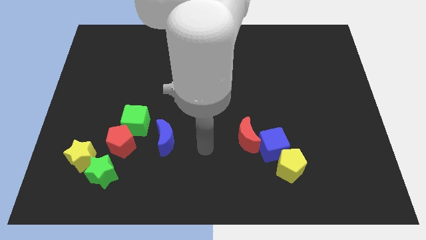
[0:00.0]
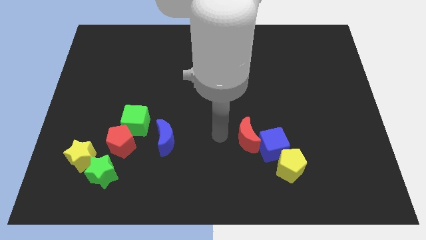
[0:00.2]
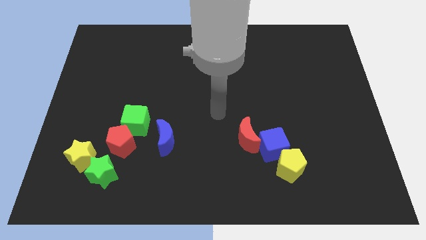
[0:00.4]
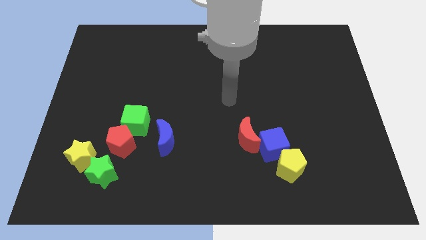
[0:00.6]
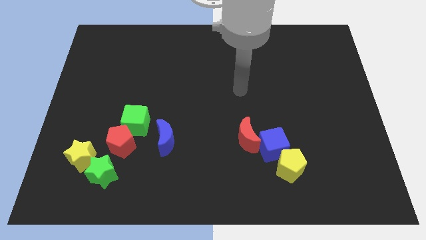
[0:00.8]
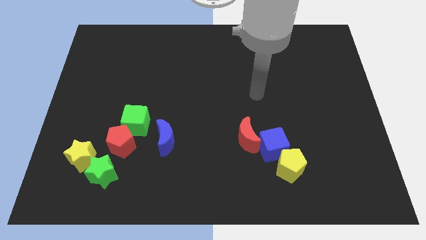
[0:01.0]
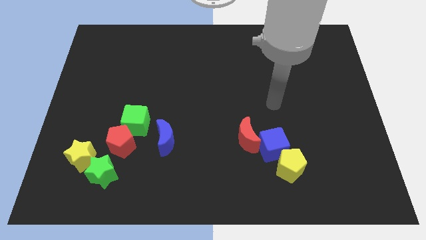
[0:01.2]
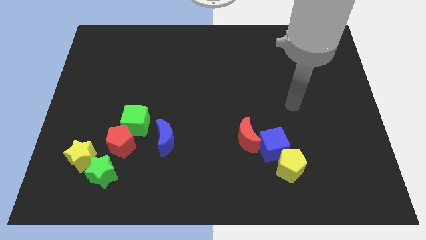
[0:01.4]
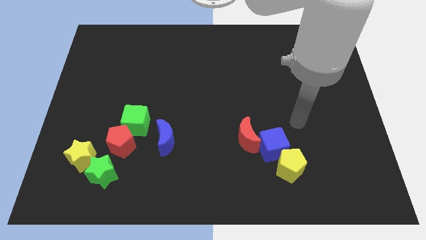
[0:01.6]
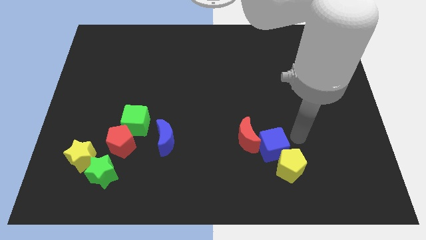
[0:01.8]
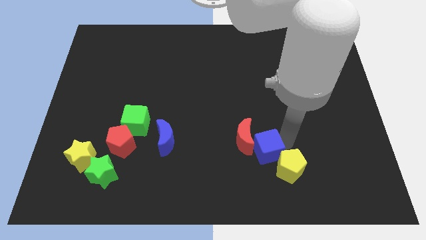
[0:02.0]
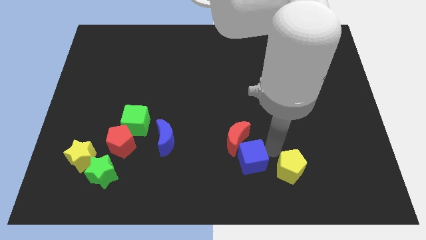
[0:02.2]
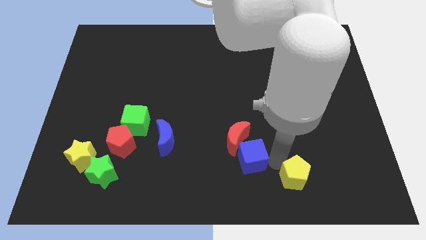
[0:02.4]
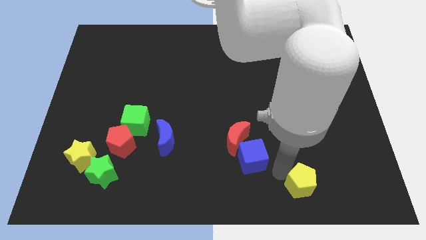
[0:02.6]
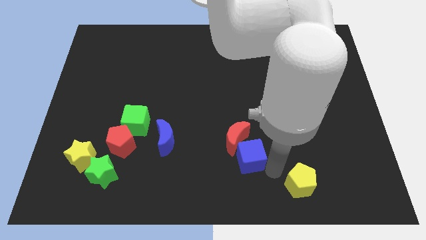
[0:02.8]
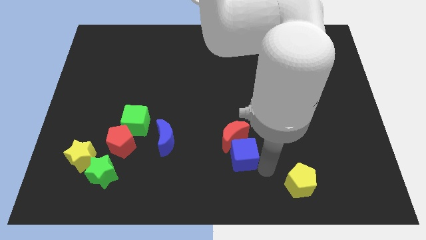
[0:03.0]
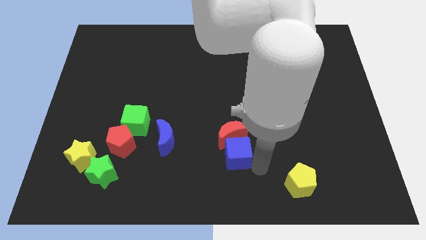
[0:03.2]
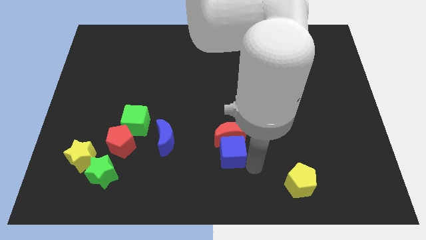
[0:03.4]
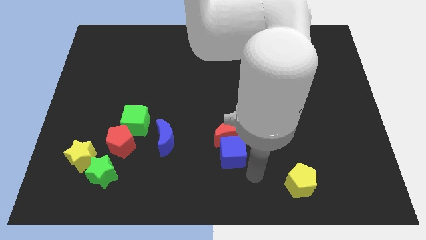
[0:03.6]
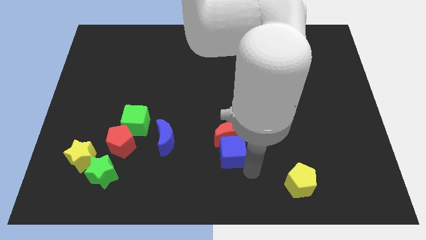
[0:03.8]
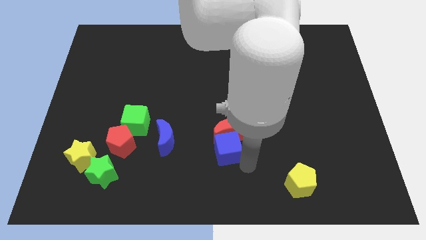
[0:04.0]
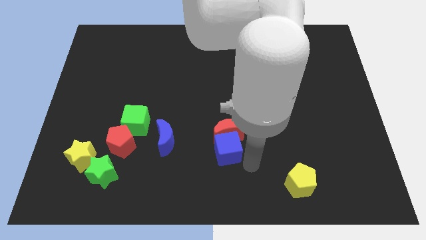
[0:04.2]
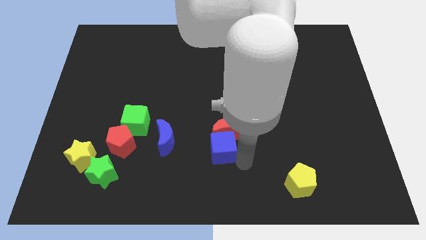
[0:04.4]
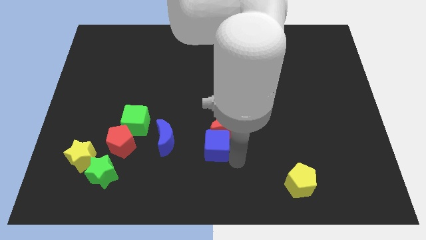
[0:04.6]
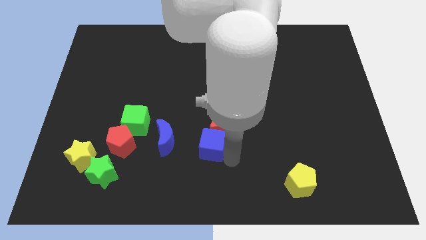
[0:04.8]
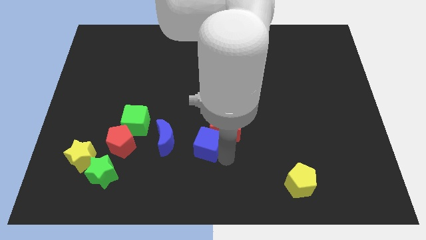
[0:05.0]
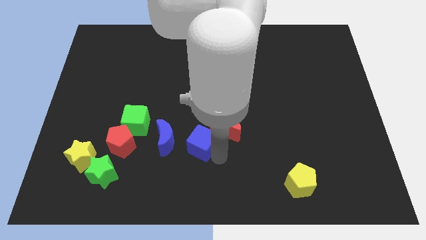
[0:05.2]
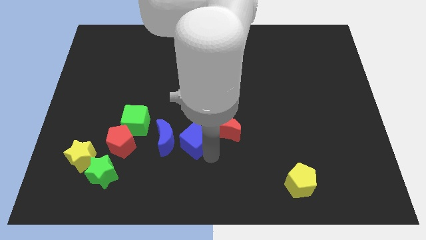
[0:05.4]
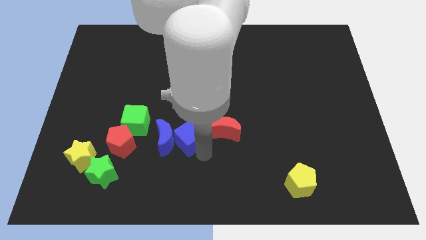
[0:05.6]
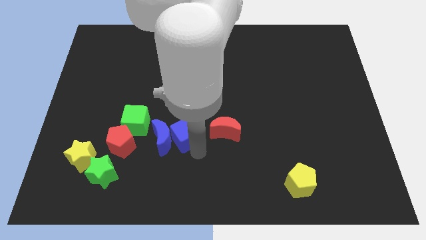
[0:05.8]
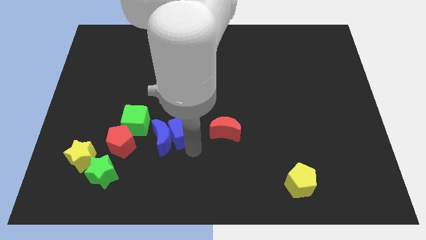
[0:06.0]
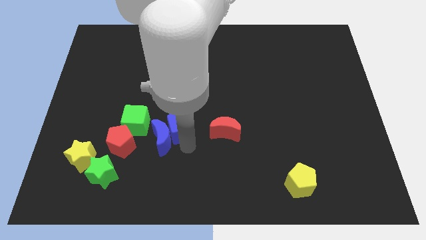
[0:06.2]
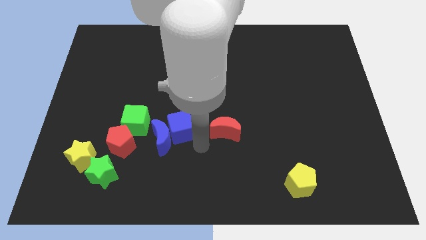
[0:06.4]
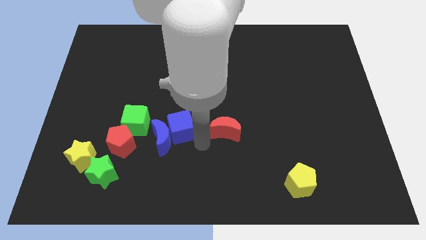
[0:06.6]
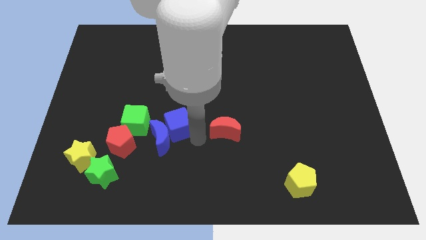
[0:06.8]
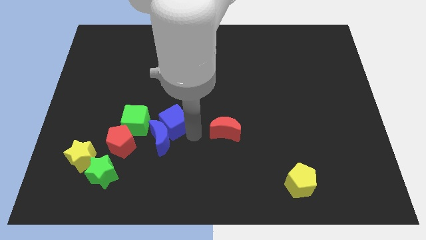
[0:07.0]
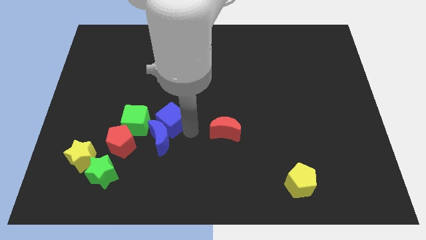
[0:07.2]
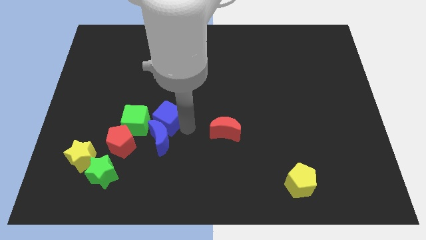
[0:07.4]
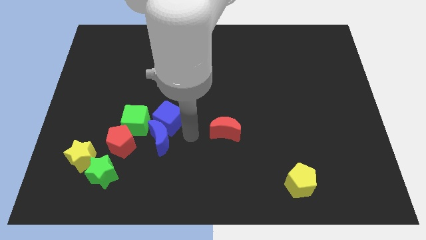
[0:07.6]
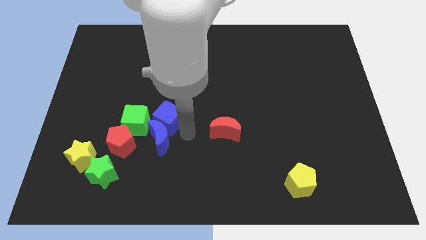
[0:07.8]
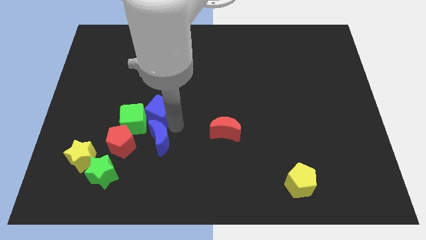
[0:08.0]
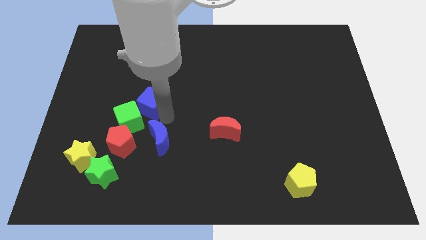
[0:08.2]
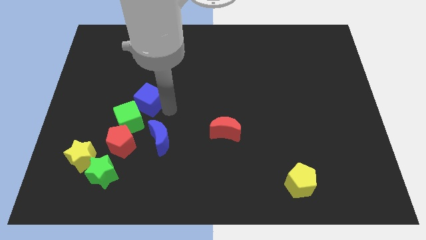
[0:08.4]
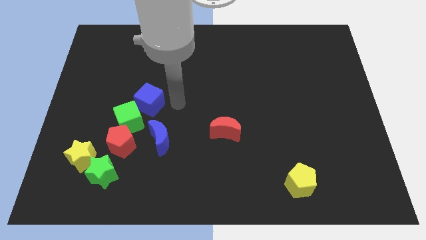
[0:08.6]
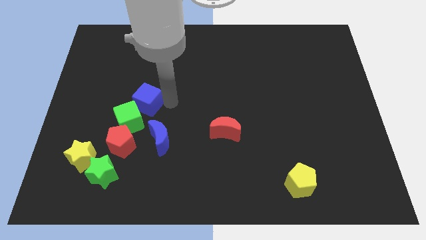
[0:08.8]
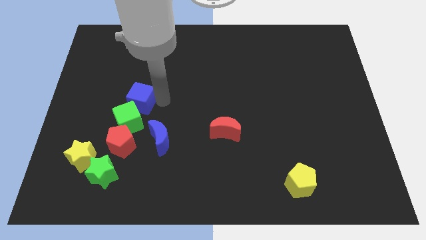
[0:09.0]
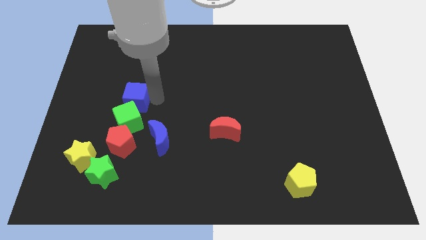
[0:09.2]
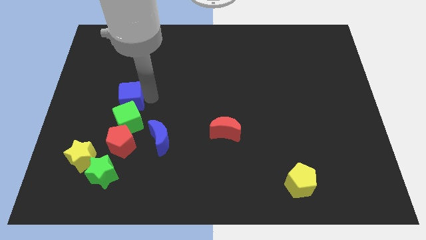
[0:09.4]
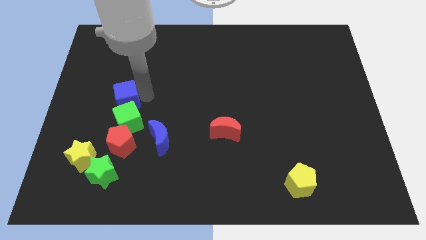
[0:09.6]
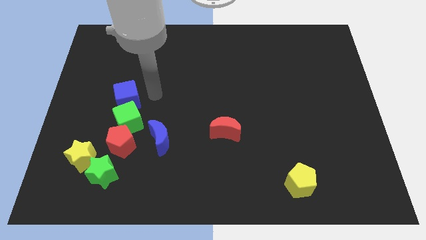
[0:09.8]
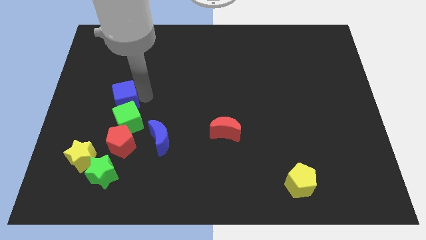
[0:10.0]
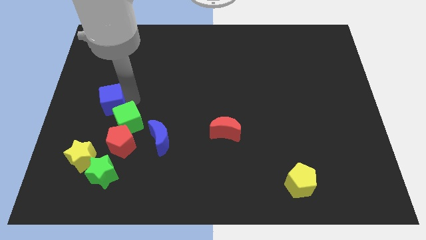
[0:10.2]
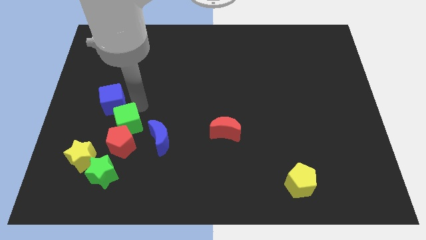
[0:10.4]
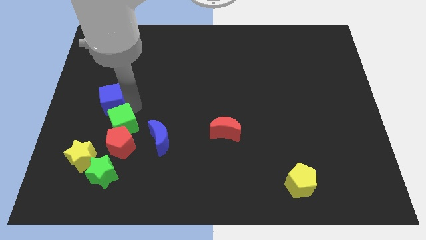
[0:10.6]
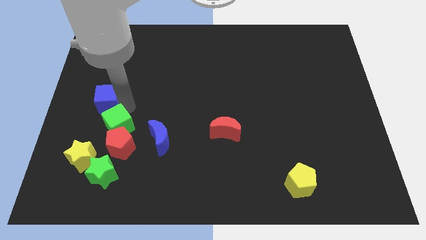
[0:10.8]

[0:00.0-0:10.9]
move the blue cube to the center left
